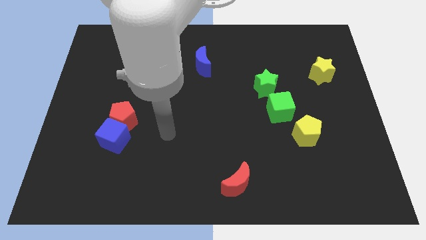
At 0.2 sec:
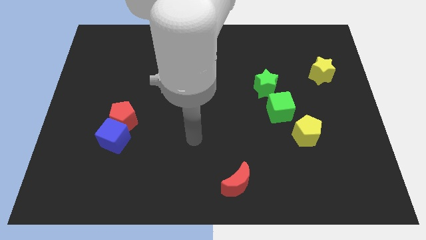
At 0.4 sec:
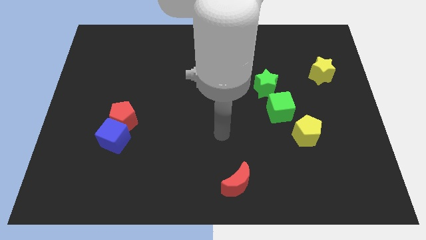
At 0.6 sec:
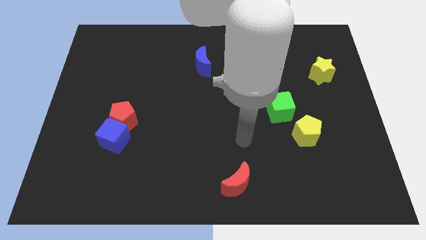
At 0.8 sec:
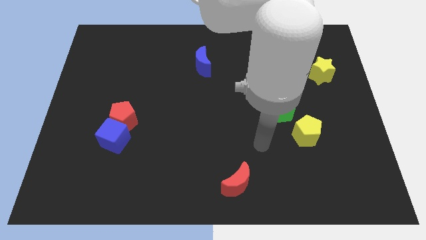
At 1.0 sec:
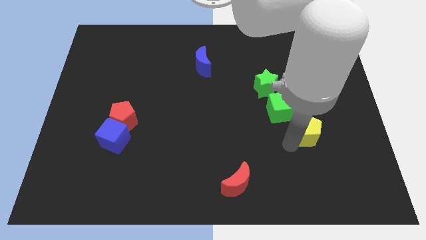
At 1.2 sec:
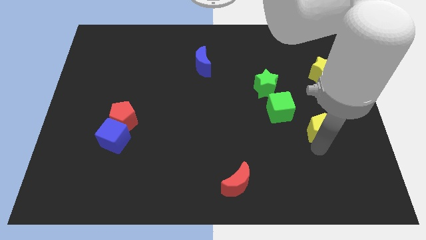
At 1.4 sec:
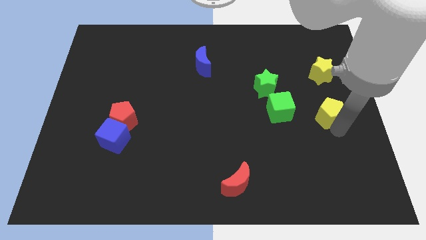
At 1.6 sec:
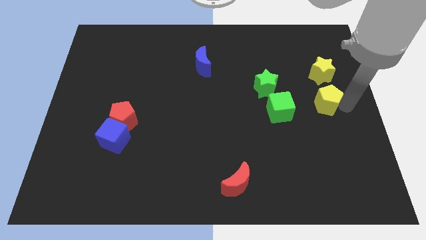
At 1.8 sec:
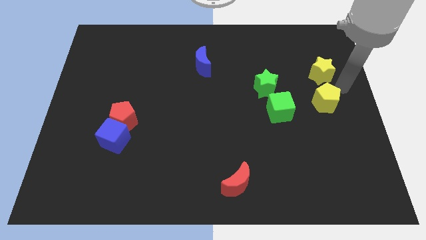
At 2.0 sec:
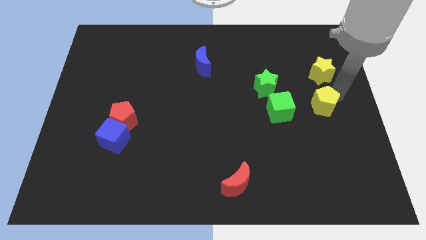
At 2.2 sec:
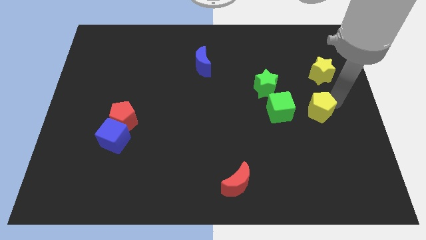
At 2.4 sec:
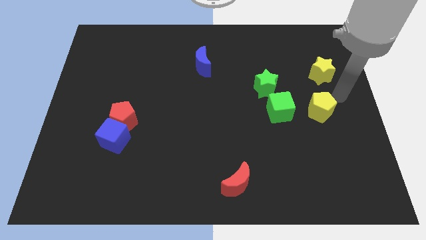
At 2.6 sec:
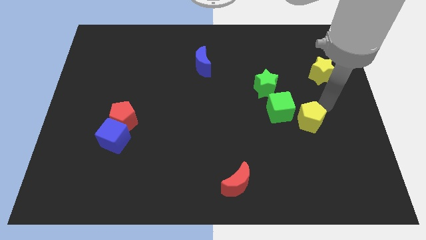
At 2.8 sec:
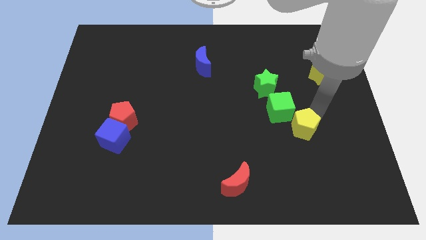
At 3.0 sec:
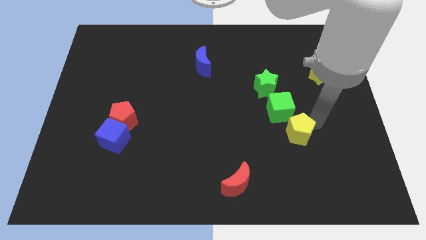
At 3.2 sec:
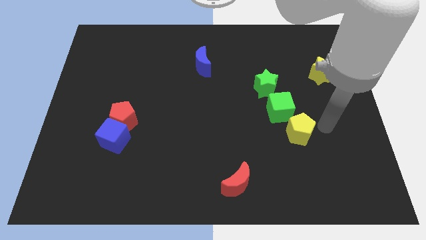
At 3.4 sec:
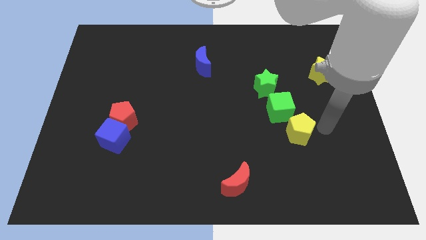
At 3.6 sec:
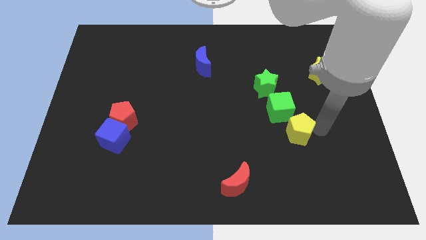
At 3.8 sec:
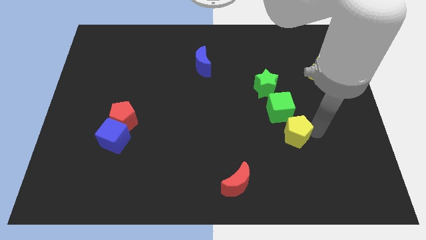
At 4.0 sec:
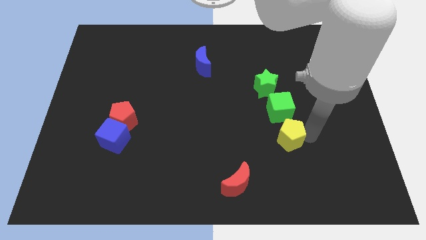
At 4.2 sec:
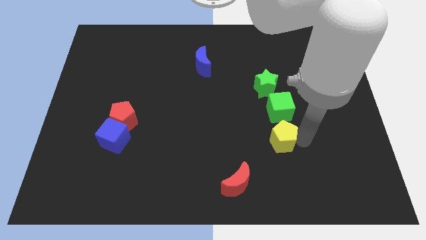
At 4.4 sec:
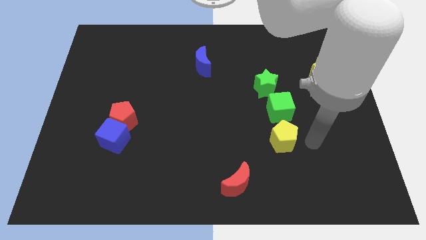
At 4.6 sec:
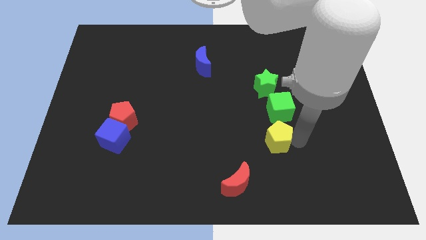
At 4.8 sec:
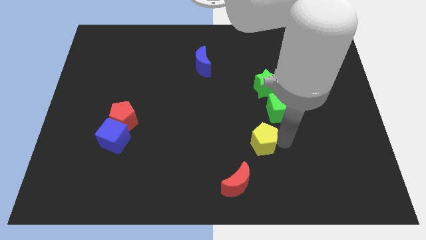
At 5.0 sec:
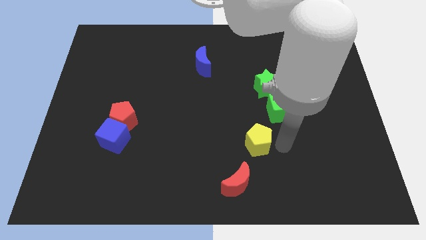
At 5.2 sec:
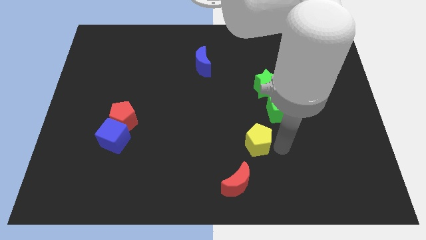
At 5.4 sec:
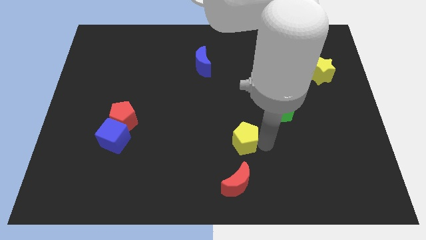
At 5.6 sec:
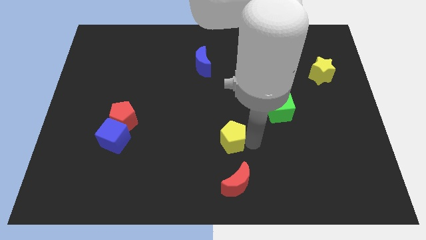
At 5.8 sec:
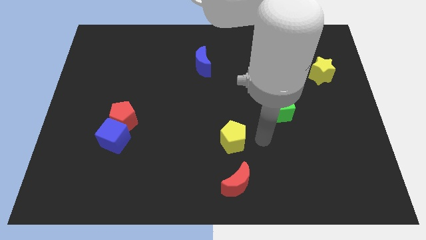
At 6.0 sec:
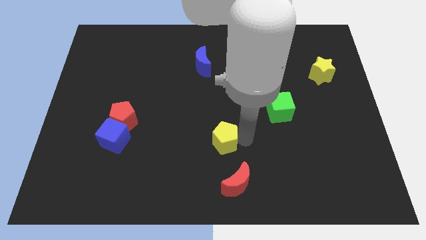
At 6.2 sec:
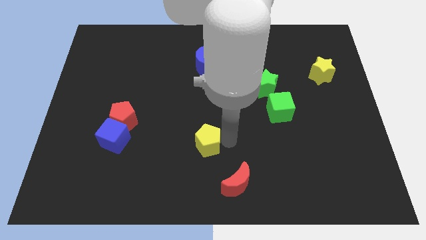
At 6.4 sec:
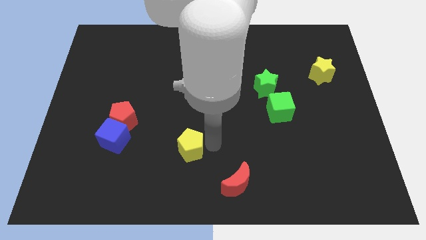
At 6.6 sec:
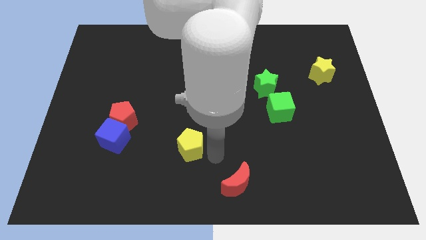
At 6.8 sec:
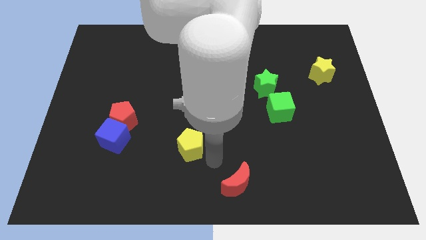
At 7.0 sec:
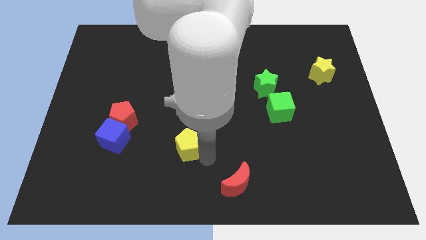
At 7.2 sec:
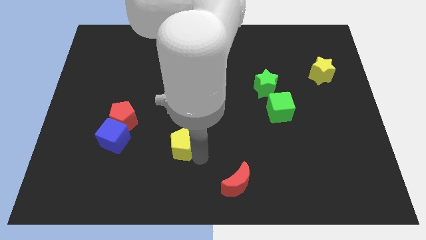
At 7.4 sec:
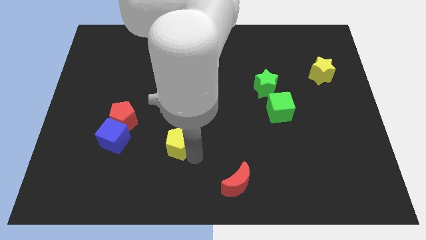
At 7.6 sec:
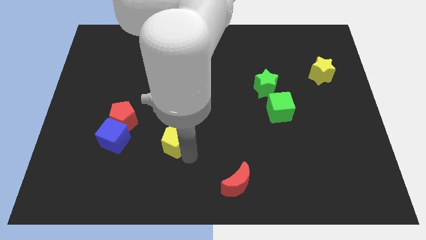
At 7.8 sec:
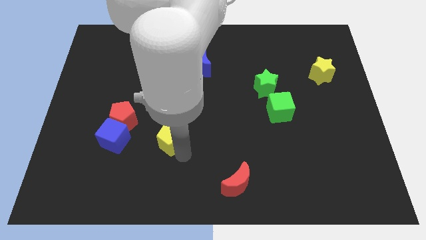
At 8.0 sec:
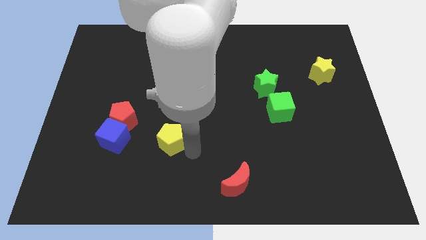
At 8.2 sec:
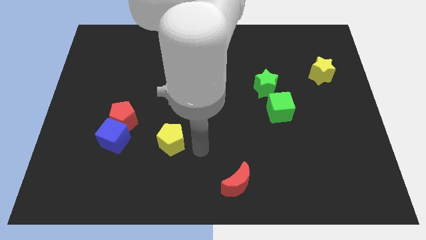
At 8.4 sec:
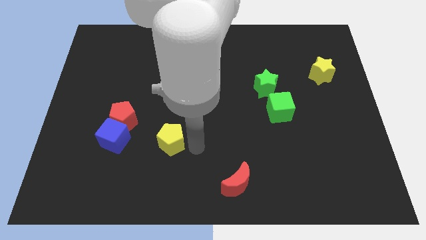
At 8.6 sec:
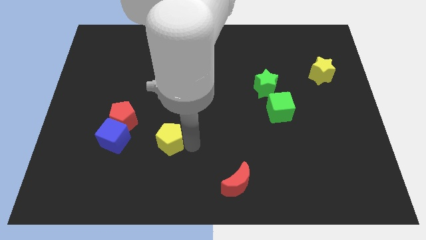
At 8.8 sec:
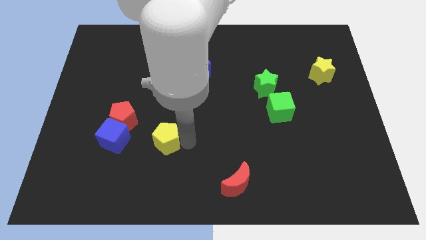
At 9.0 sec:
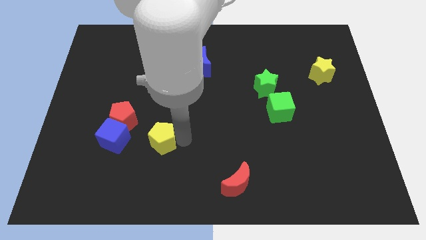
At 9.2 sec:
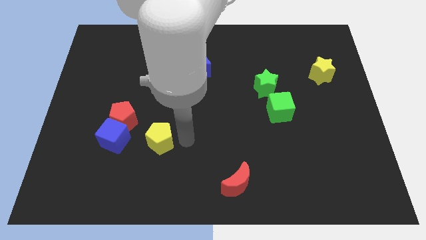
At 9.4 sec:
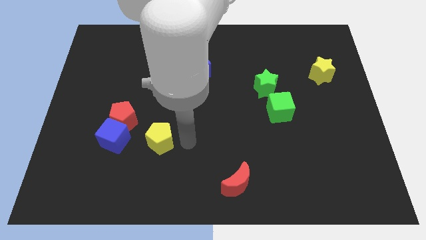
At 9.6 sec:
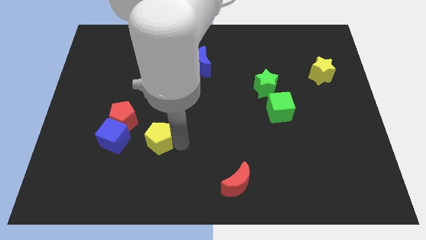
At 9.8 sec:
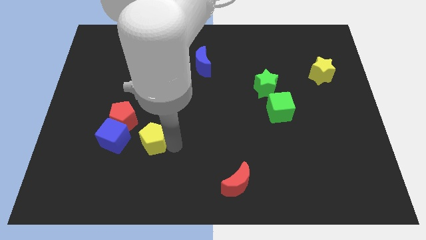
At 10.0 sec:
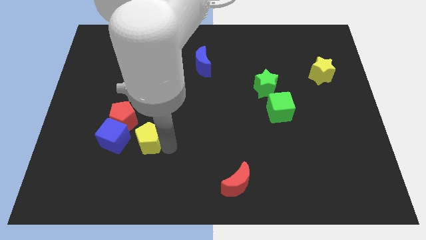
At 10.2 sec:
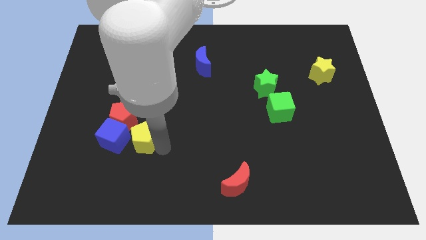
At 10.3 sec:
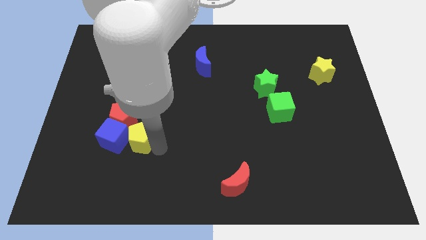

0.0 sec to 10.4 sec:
move the yellow pentagon to the blue cube
